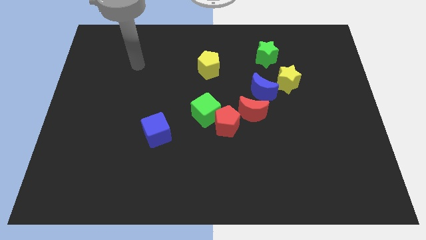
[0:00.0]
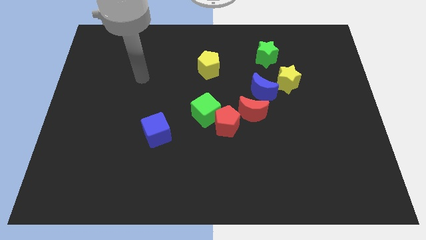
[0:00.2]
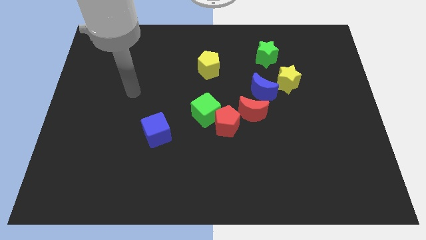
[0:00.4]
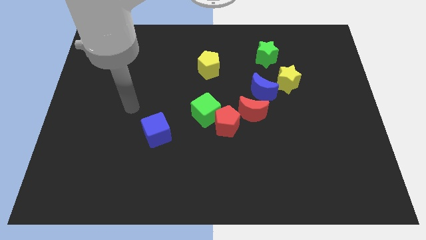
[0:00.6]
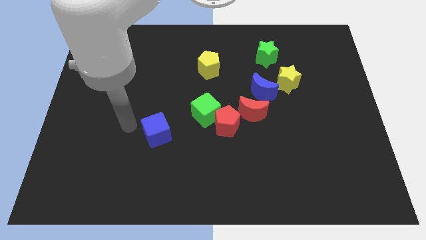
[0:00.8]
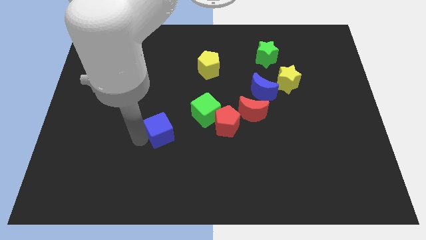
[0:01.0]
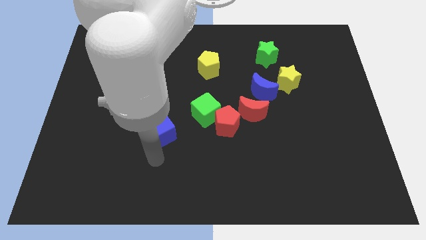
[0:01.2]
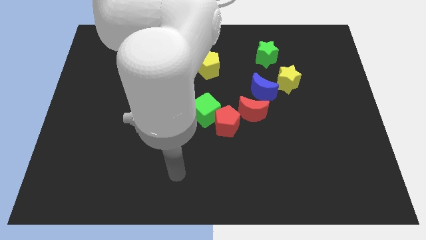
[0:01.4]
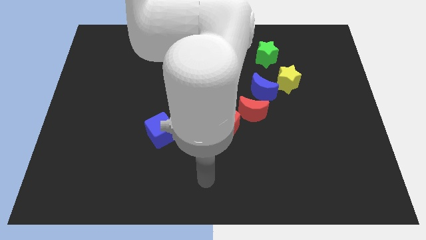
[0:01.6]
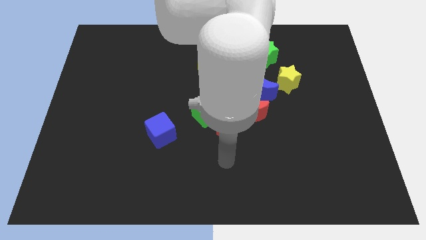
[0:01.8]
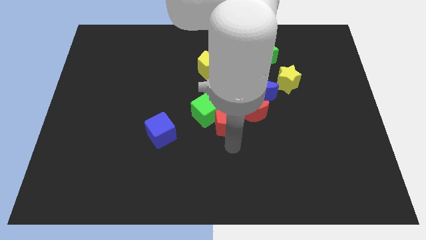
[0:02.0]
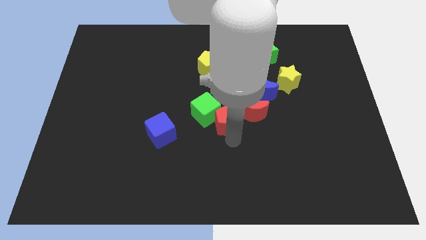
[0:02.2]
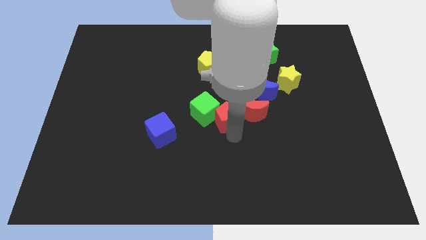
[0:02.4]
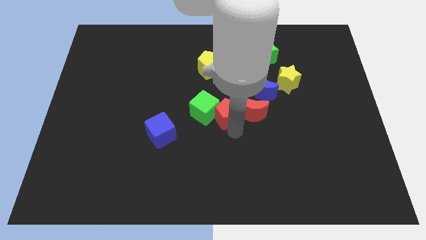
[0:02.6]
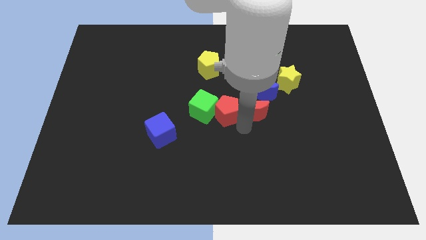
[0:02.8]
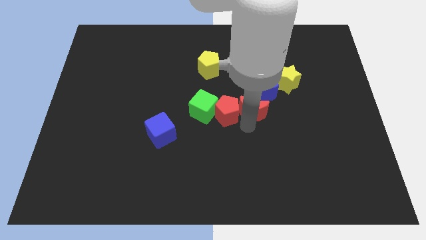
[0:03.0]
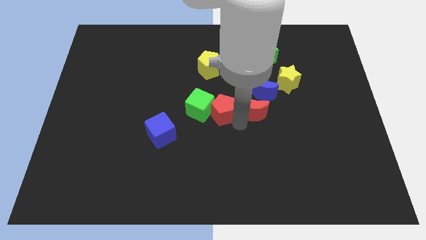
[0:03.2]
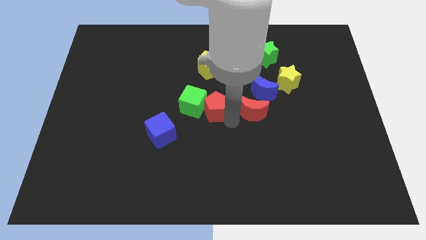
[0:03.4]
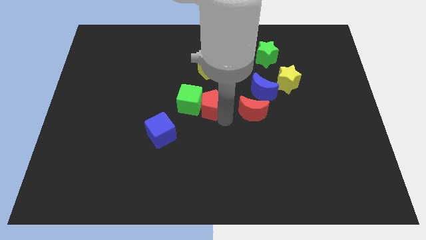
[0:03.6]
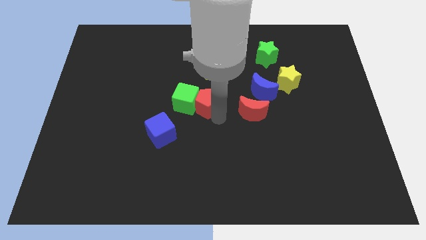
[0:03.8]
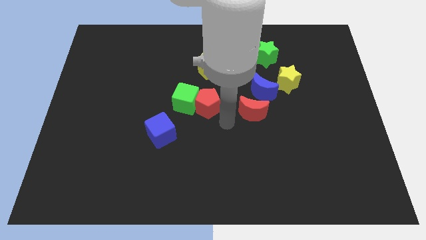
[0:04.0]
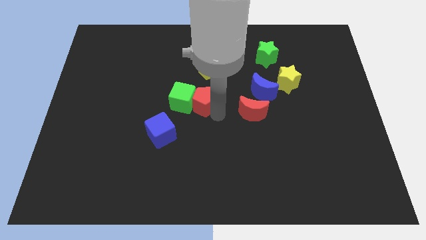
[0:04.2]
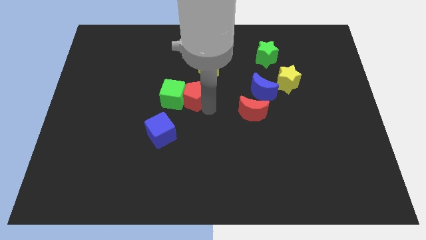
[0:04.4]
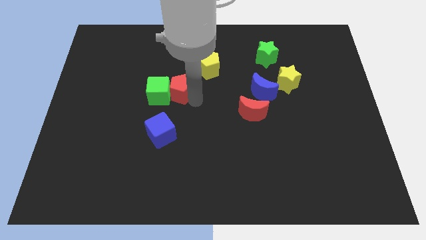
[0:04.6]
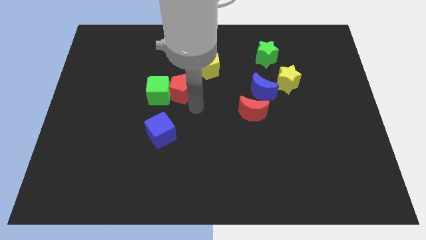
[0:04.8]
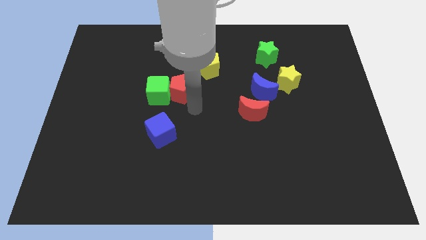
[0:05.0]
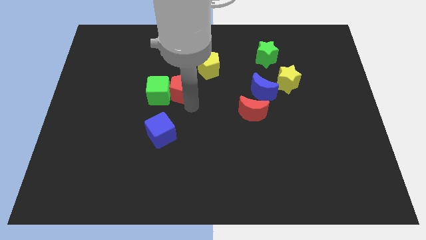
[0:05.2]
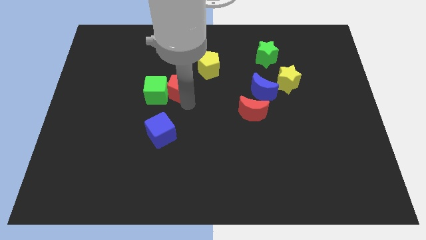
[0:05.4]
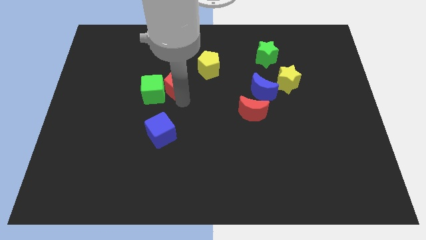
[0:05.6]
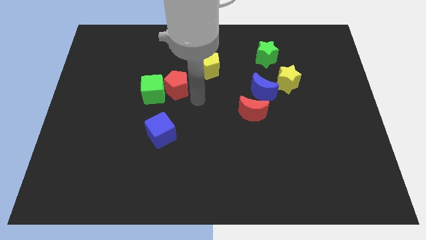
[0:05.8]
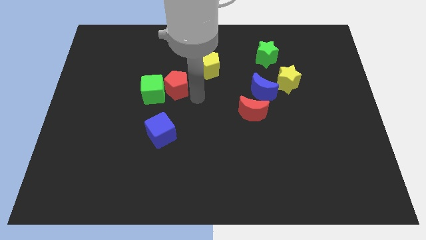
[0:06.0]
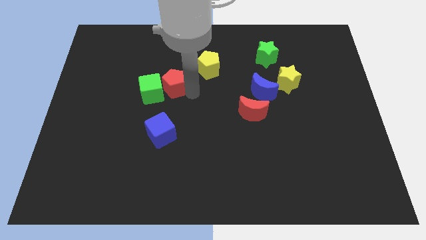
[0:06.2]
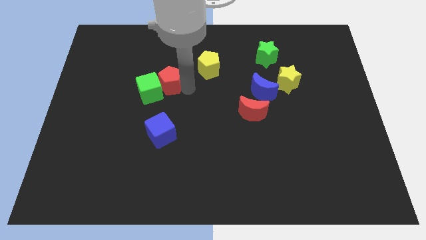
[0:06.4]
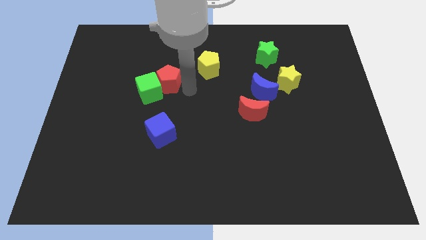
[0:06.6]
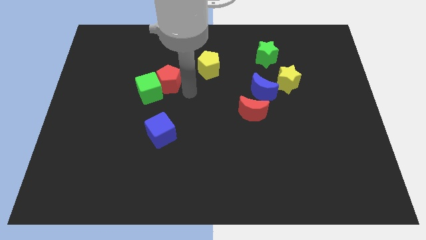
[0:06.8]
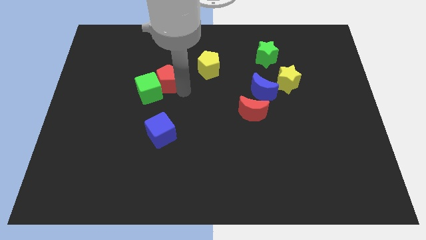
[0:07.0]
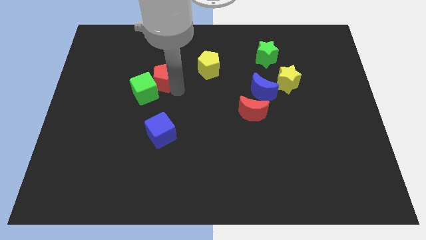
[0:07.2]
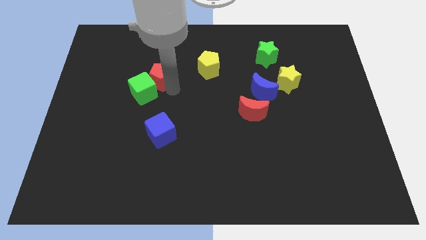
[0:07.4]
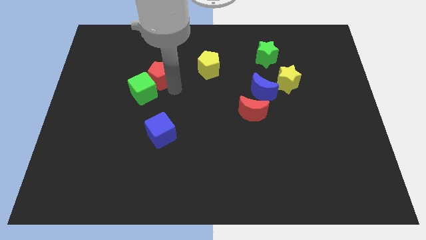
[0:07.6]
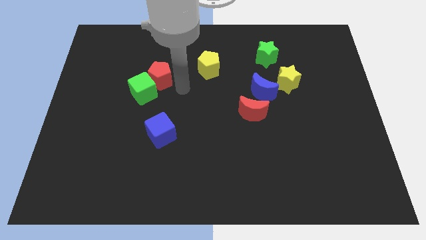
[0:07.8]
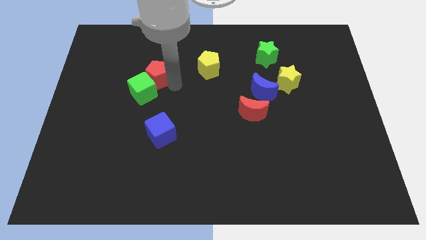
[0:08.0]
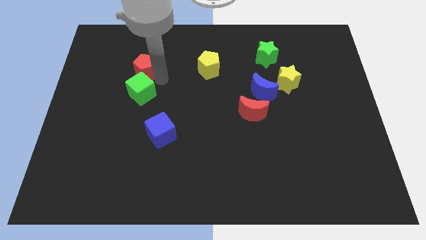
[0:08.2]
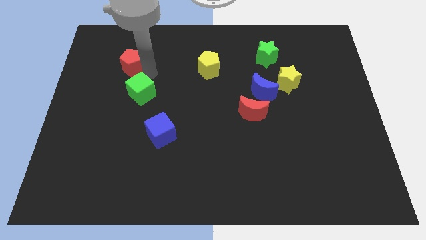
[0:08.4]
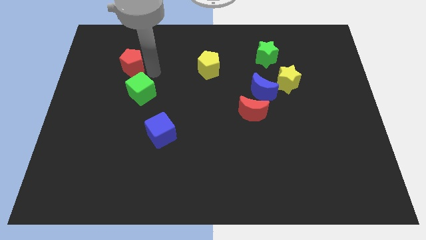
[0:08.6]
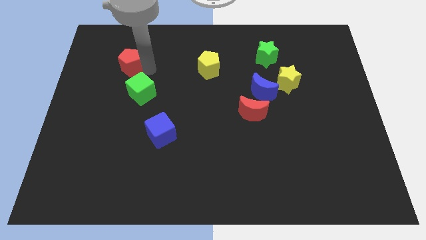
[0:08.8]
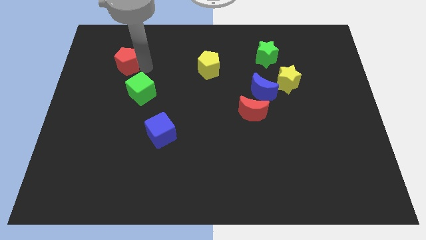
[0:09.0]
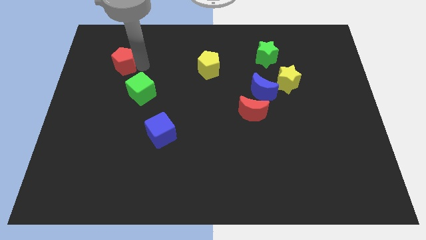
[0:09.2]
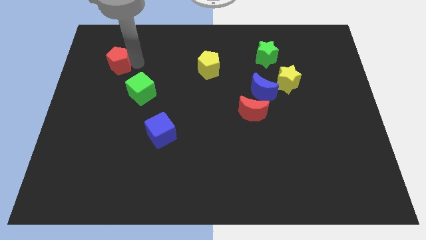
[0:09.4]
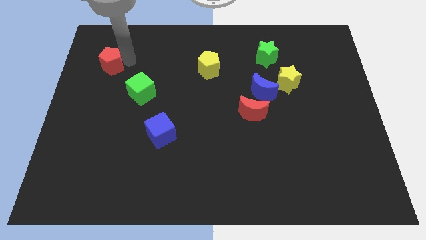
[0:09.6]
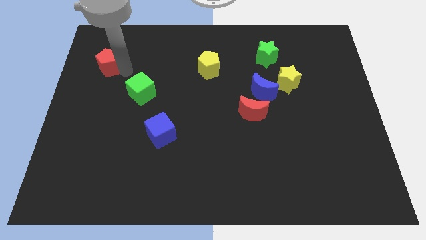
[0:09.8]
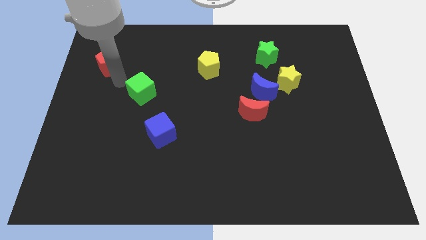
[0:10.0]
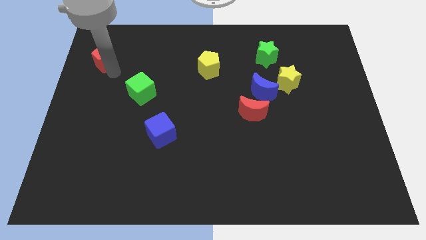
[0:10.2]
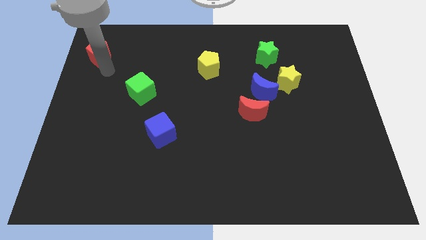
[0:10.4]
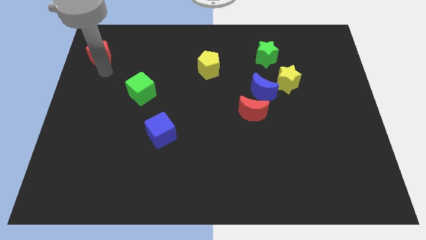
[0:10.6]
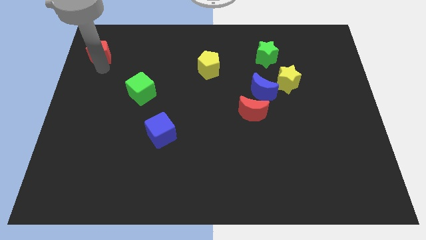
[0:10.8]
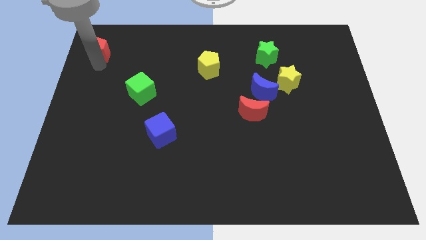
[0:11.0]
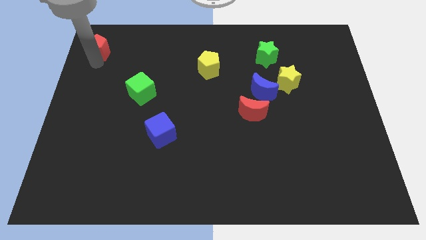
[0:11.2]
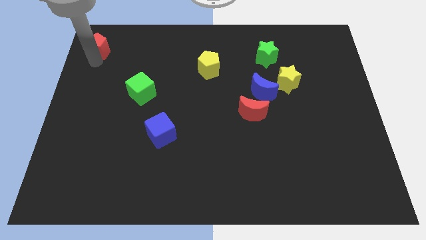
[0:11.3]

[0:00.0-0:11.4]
move the red pentagon to the top left corner

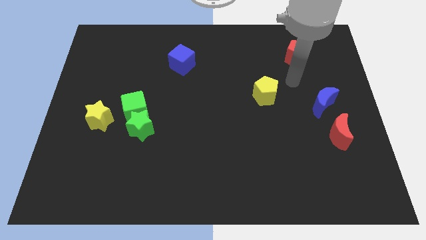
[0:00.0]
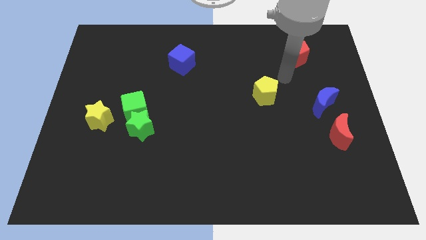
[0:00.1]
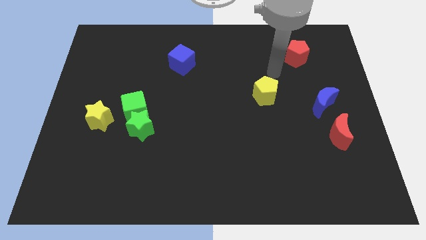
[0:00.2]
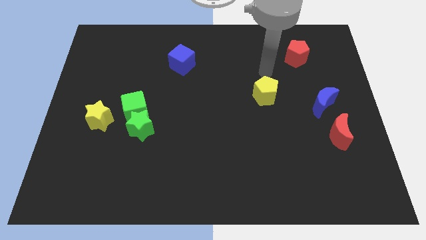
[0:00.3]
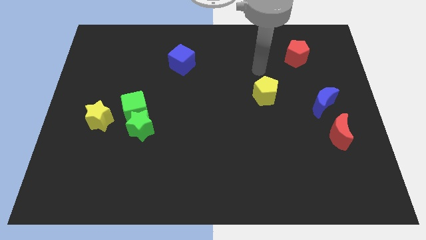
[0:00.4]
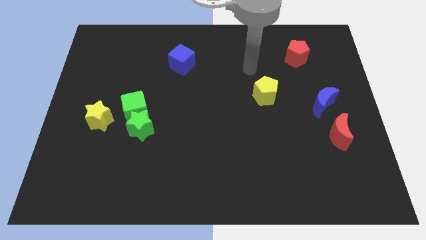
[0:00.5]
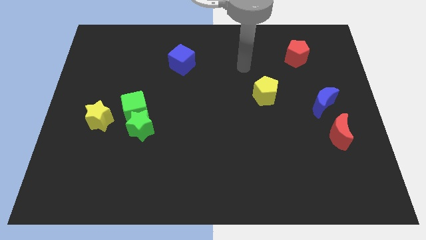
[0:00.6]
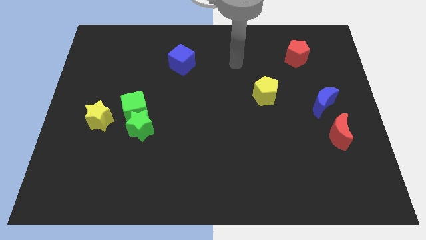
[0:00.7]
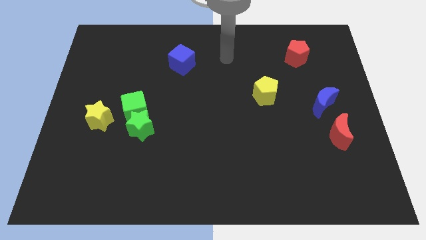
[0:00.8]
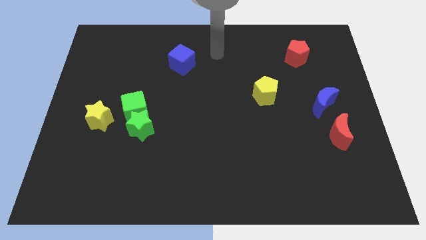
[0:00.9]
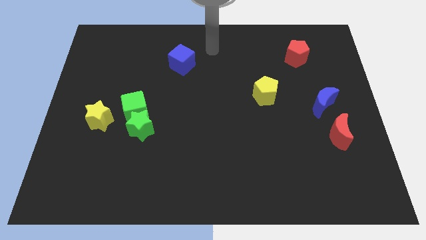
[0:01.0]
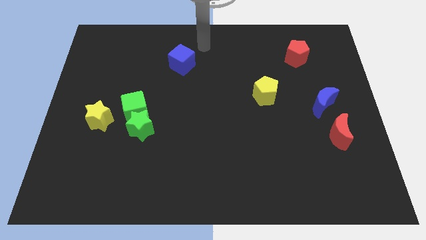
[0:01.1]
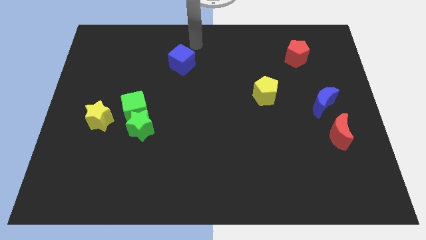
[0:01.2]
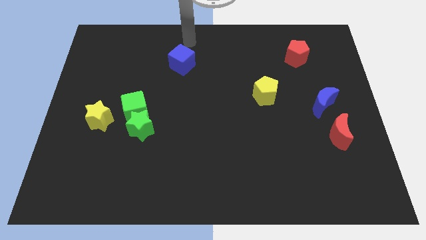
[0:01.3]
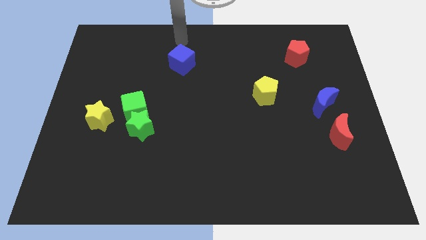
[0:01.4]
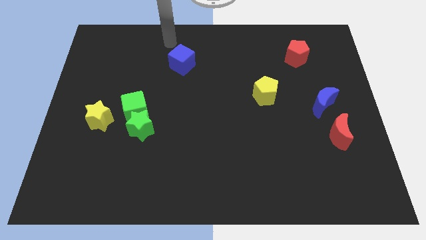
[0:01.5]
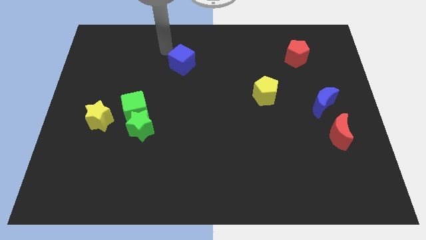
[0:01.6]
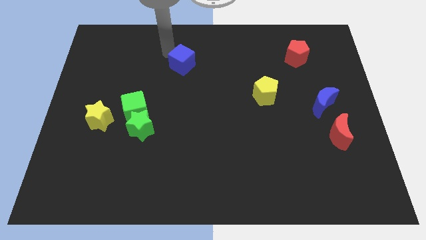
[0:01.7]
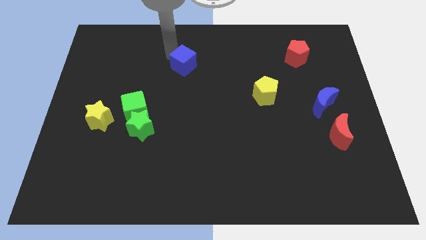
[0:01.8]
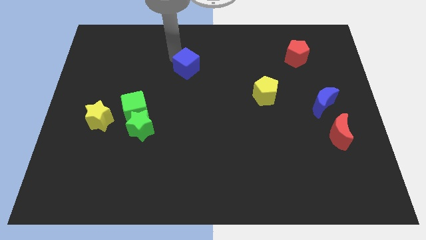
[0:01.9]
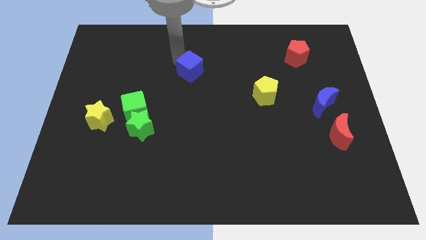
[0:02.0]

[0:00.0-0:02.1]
put the blue cube to the center
